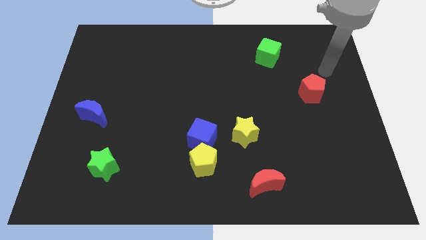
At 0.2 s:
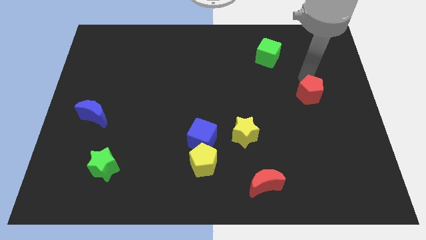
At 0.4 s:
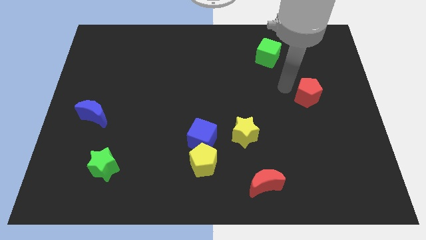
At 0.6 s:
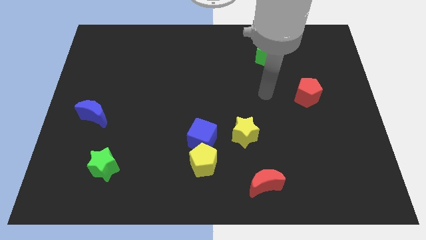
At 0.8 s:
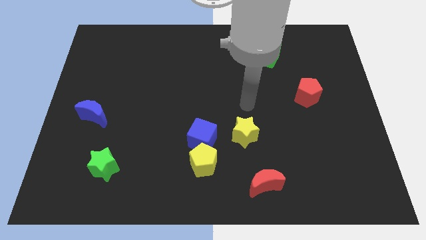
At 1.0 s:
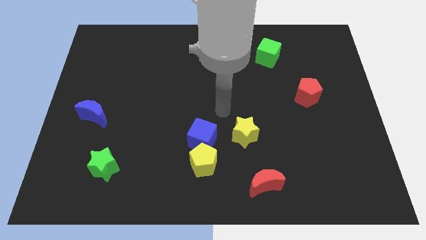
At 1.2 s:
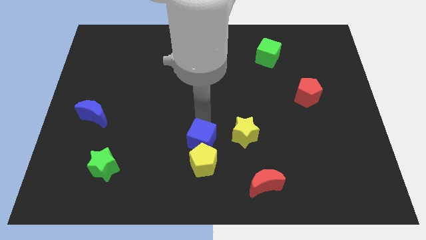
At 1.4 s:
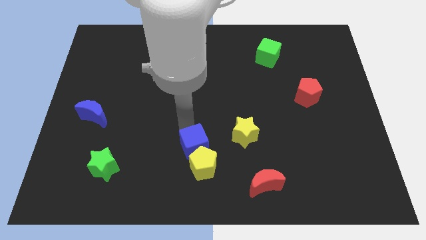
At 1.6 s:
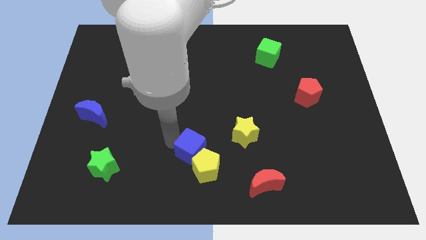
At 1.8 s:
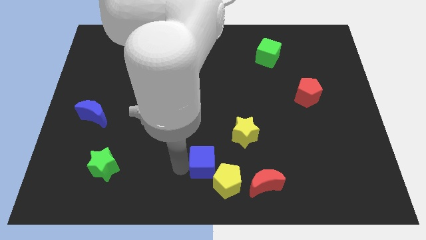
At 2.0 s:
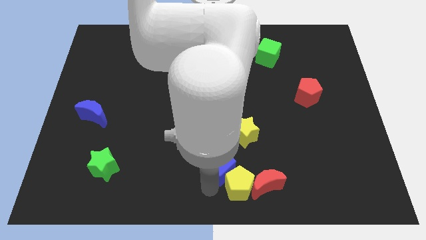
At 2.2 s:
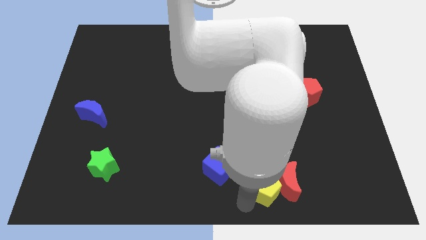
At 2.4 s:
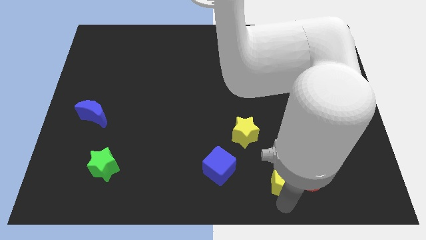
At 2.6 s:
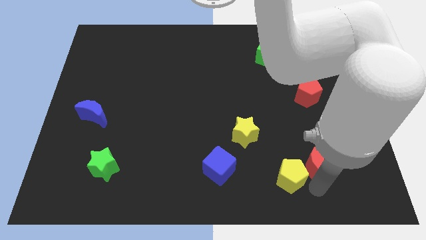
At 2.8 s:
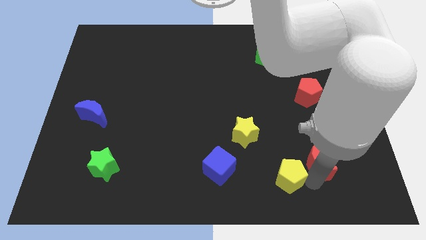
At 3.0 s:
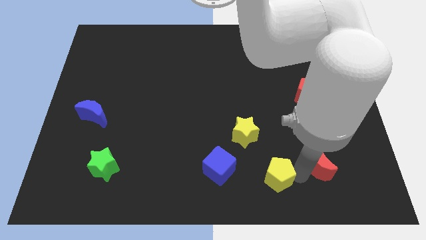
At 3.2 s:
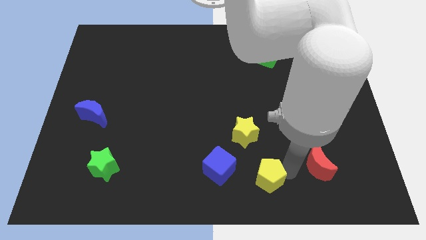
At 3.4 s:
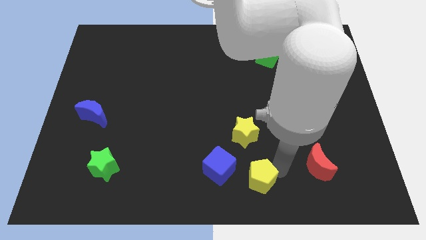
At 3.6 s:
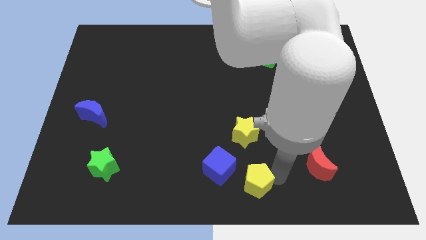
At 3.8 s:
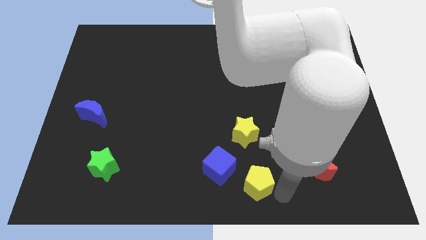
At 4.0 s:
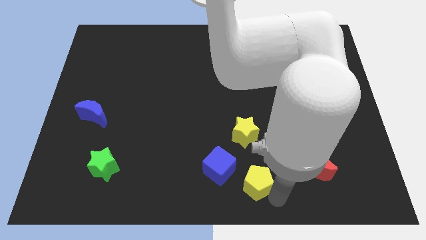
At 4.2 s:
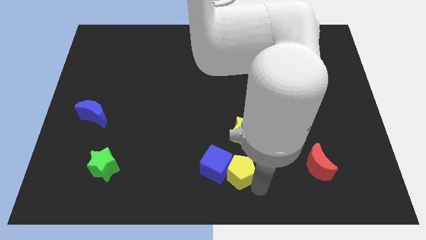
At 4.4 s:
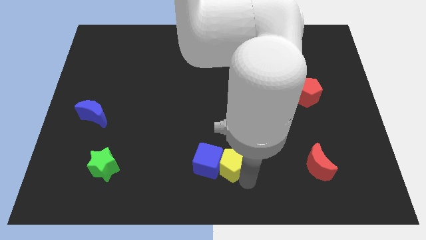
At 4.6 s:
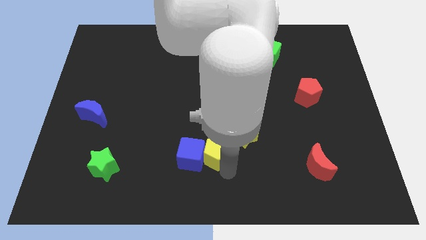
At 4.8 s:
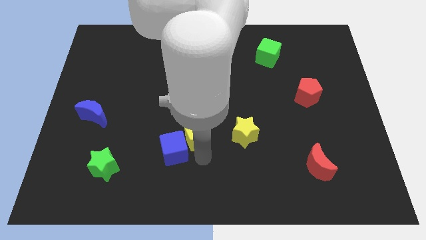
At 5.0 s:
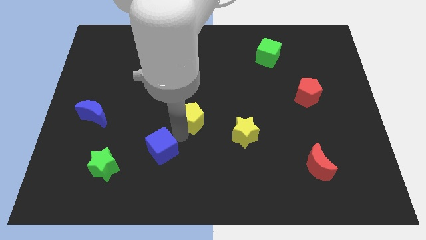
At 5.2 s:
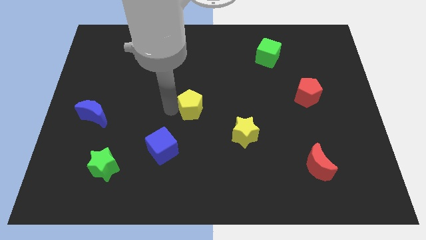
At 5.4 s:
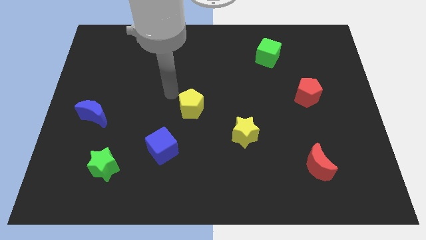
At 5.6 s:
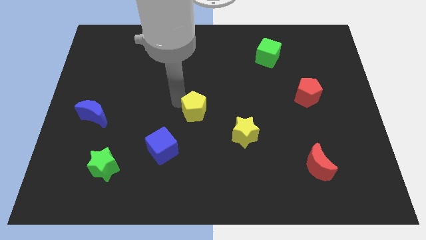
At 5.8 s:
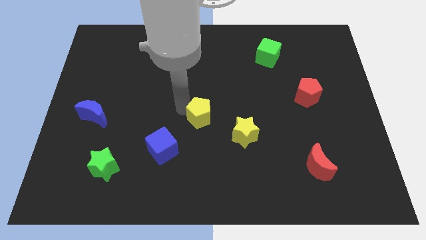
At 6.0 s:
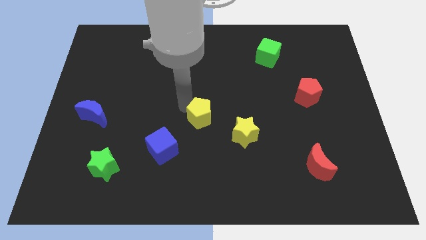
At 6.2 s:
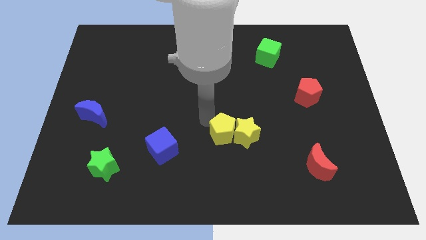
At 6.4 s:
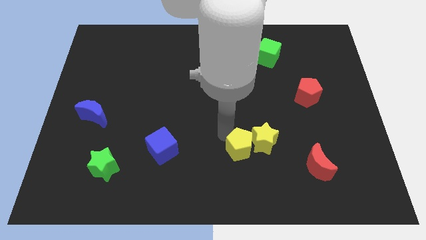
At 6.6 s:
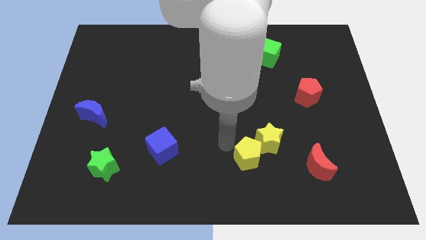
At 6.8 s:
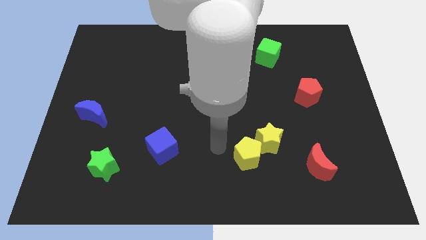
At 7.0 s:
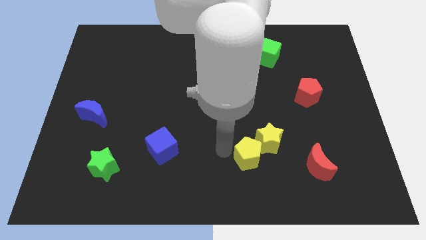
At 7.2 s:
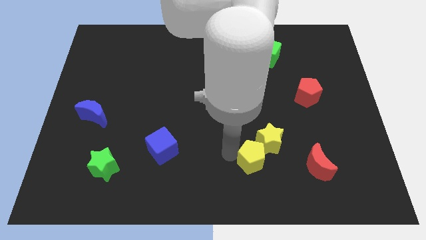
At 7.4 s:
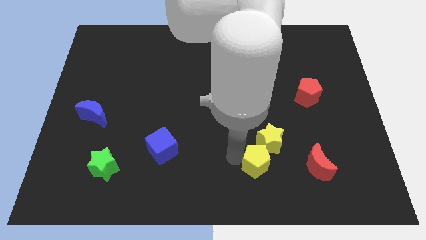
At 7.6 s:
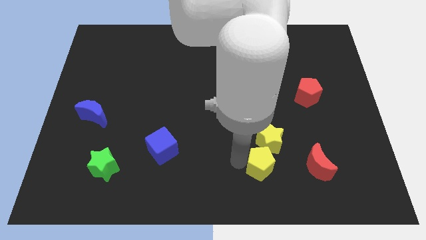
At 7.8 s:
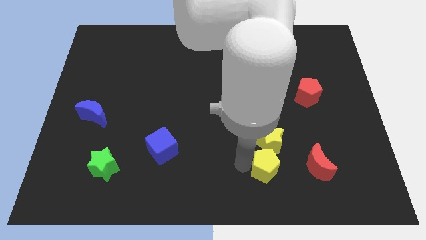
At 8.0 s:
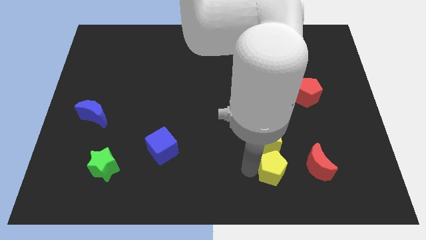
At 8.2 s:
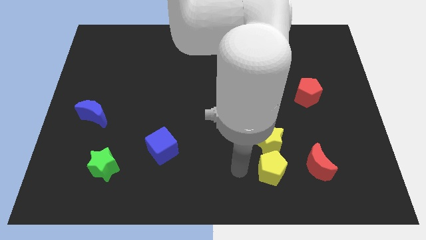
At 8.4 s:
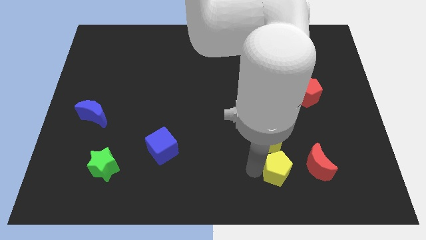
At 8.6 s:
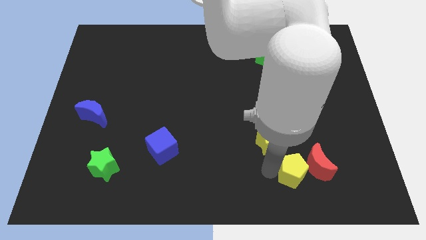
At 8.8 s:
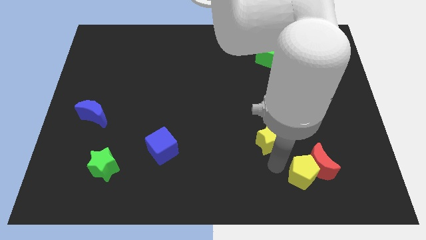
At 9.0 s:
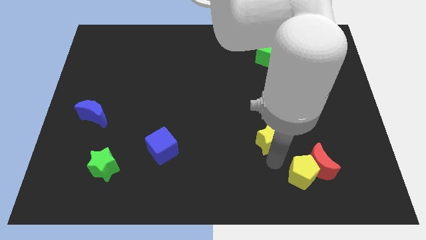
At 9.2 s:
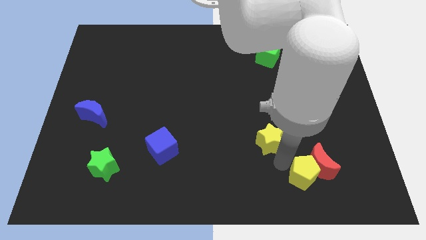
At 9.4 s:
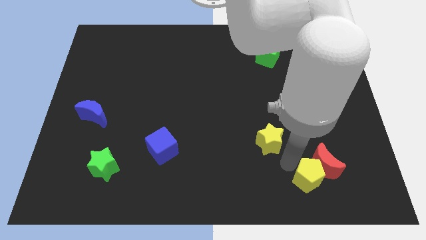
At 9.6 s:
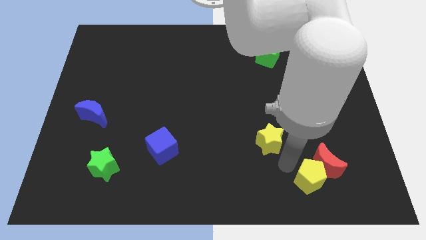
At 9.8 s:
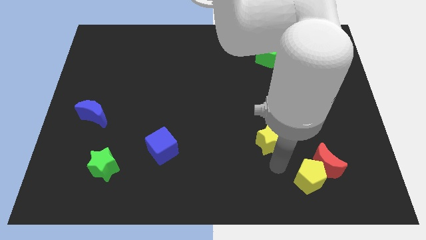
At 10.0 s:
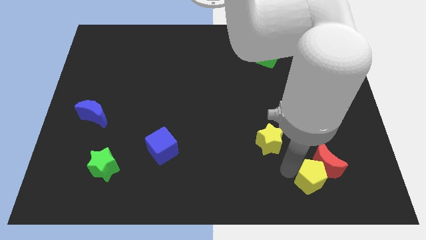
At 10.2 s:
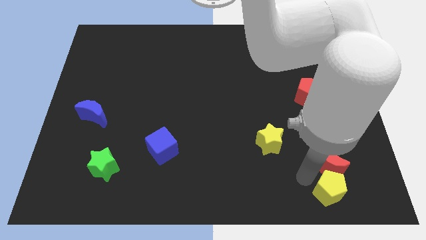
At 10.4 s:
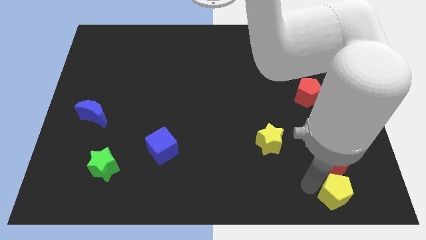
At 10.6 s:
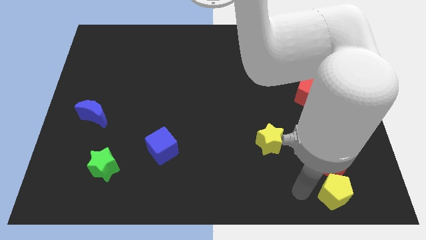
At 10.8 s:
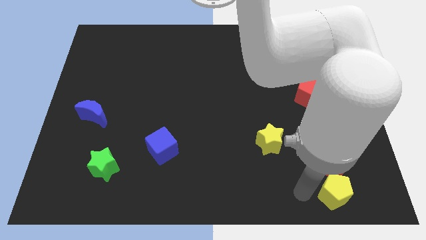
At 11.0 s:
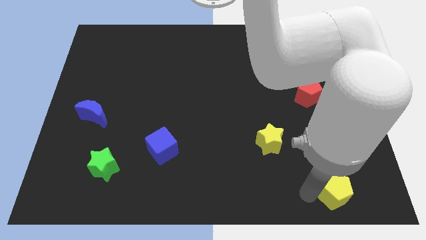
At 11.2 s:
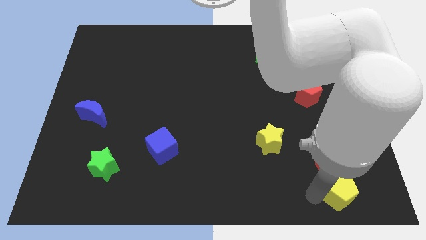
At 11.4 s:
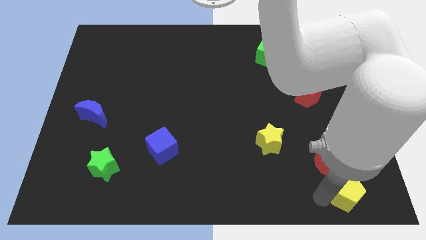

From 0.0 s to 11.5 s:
move the yellow pentagon to the bottom right corner

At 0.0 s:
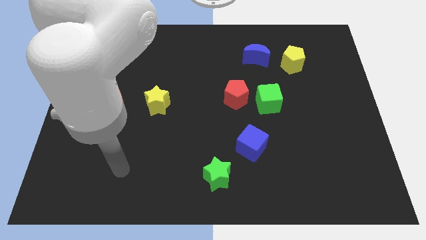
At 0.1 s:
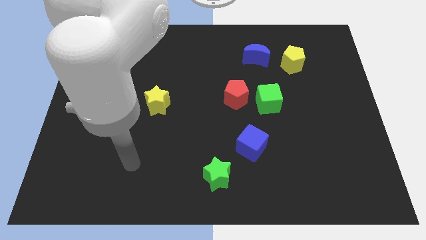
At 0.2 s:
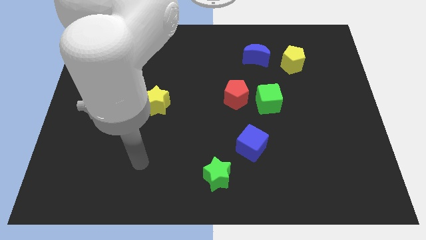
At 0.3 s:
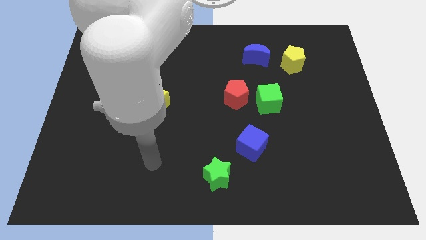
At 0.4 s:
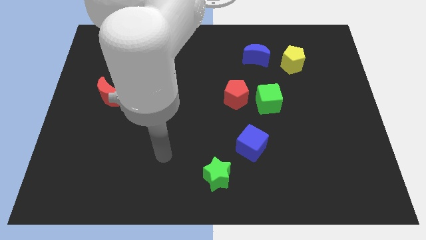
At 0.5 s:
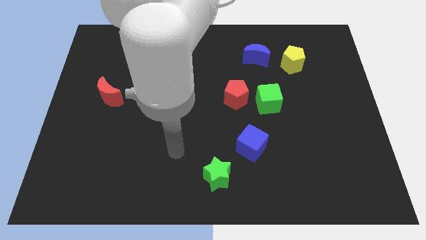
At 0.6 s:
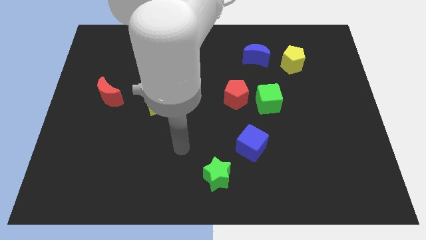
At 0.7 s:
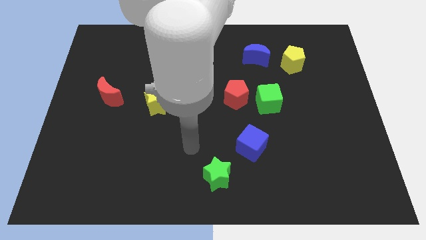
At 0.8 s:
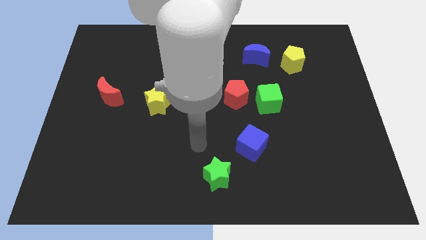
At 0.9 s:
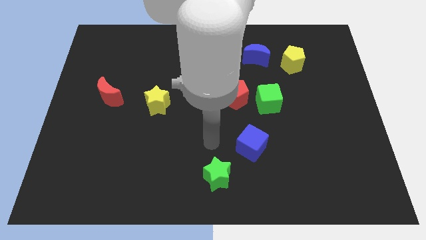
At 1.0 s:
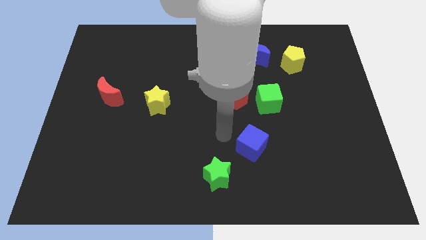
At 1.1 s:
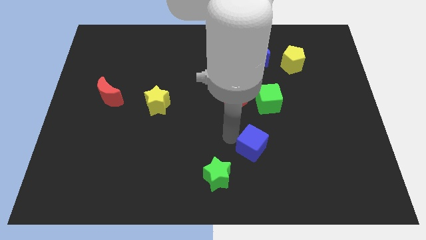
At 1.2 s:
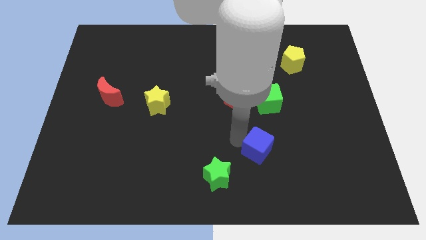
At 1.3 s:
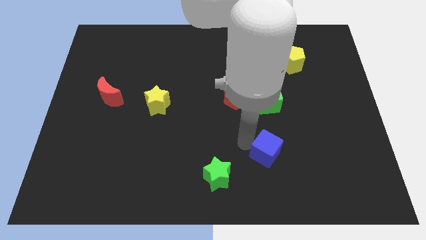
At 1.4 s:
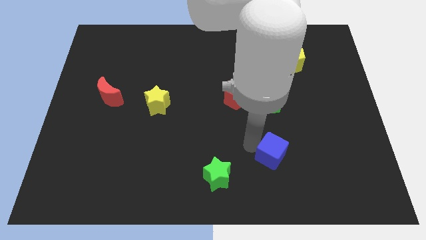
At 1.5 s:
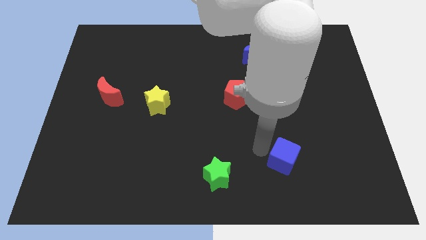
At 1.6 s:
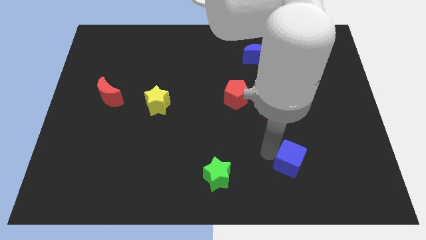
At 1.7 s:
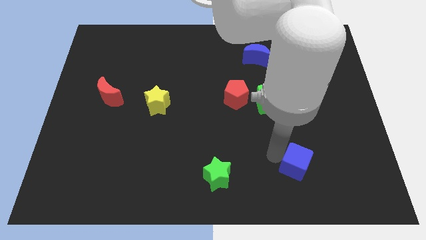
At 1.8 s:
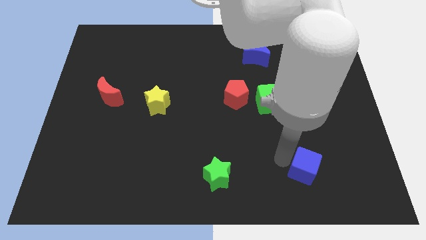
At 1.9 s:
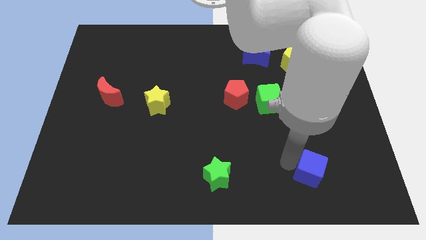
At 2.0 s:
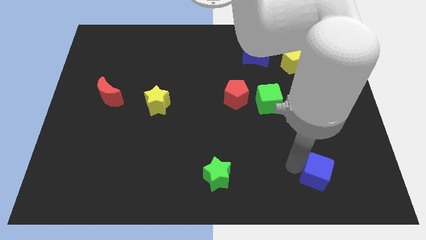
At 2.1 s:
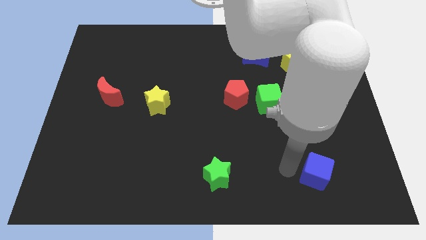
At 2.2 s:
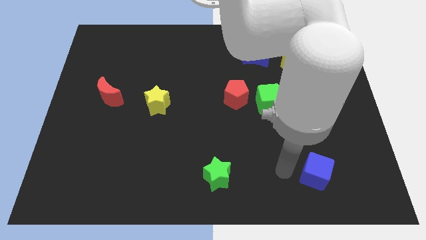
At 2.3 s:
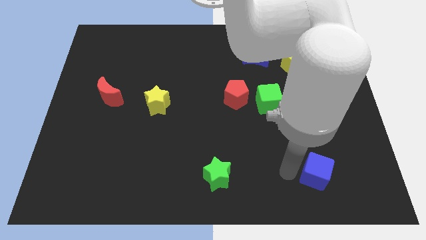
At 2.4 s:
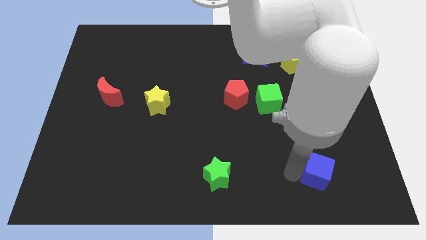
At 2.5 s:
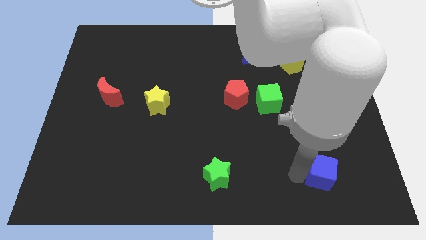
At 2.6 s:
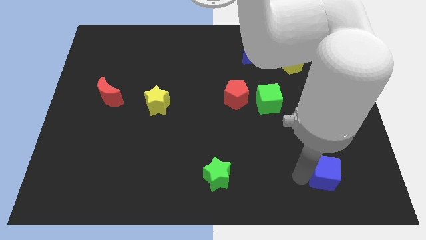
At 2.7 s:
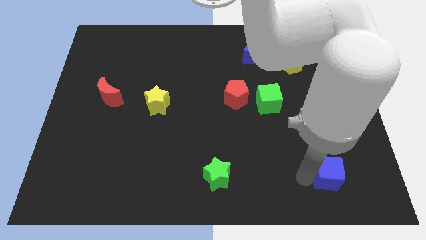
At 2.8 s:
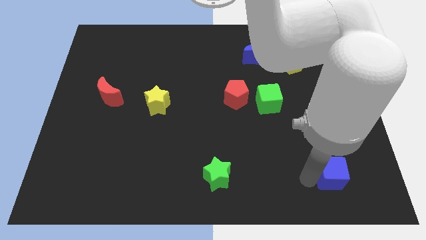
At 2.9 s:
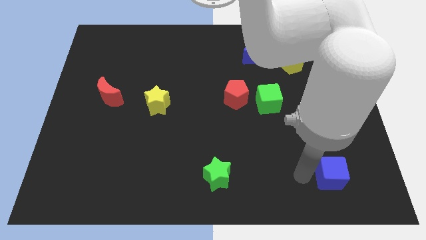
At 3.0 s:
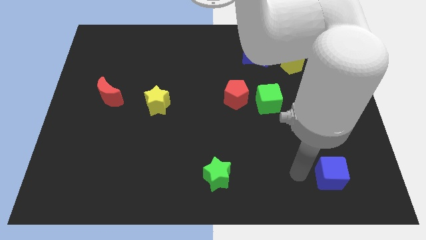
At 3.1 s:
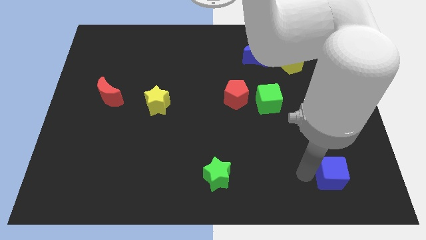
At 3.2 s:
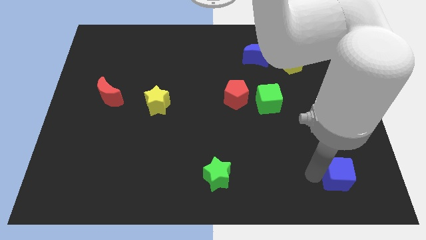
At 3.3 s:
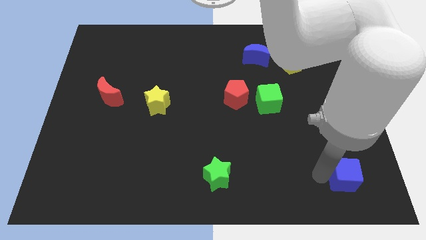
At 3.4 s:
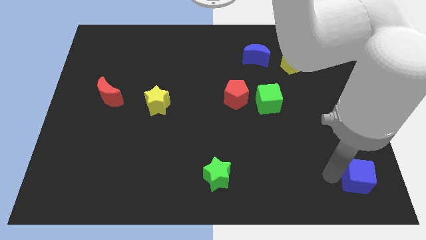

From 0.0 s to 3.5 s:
put the blue cube to the bottom right corner
